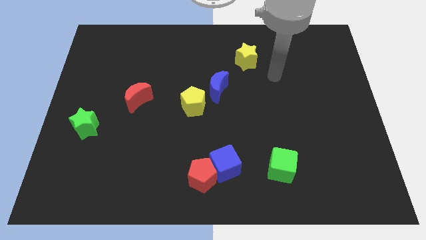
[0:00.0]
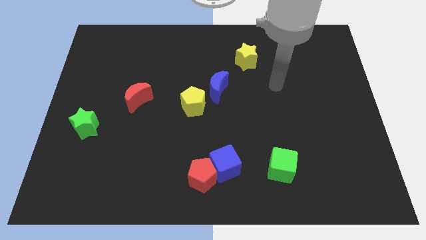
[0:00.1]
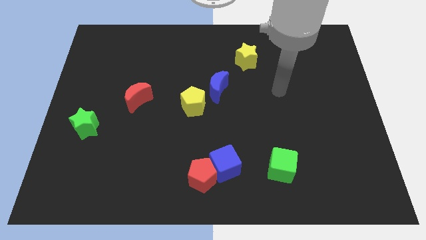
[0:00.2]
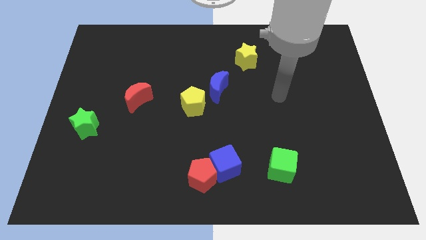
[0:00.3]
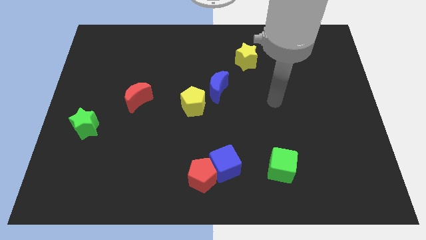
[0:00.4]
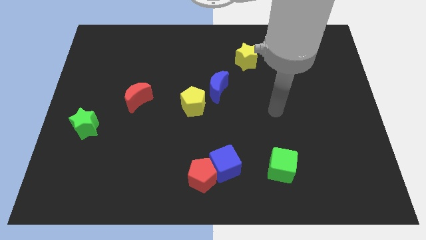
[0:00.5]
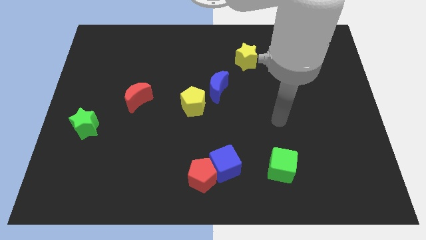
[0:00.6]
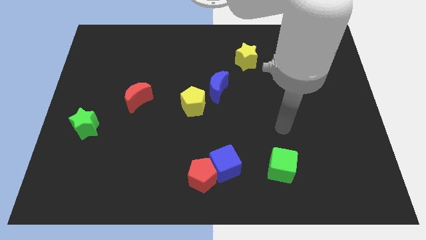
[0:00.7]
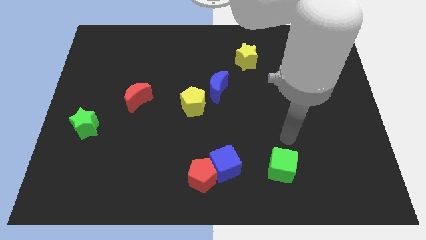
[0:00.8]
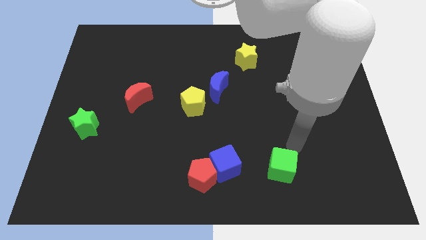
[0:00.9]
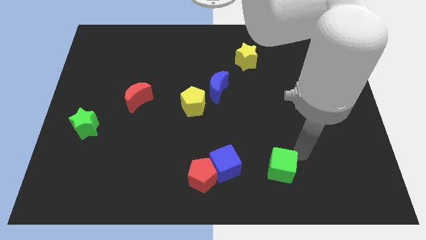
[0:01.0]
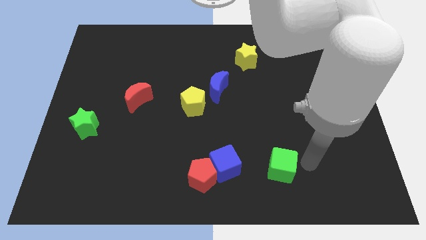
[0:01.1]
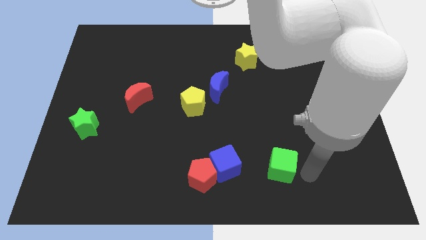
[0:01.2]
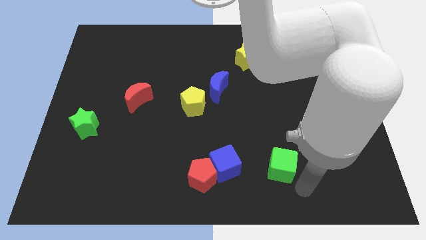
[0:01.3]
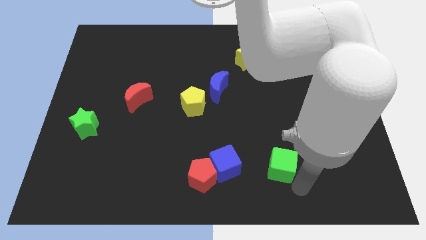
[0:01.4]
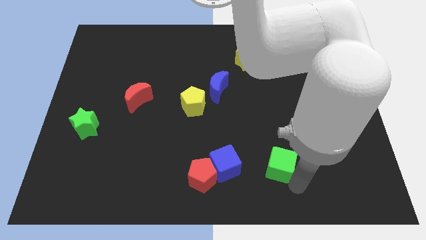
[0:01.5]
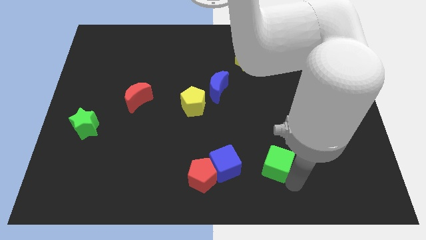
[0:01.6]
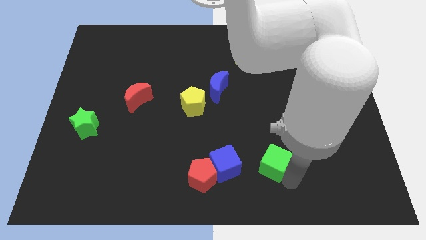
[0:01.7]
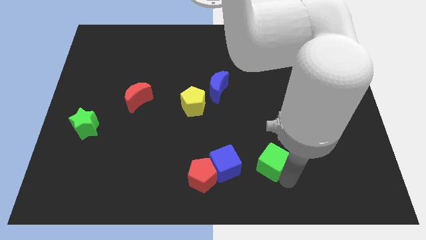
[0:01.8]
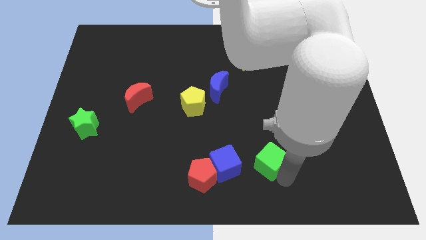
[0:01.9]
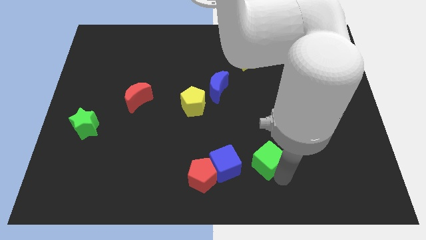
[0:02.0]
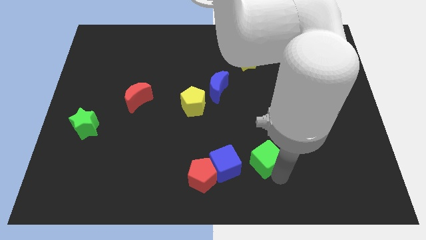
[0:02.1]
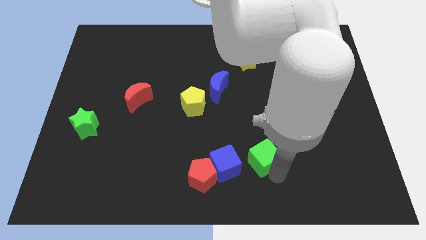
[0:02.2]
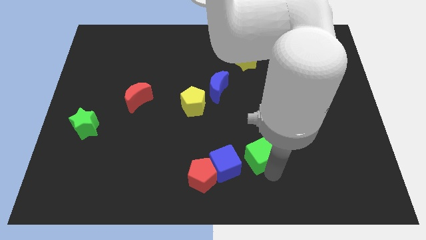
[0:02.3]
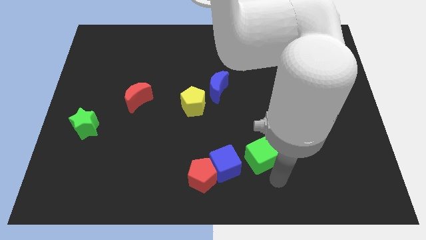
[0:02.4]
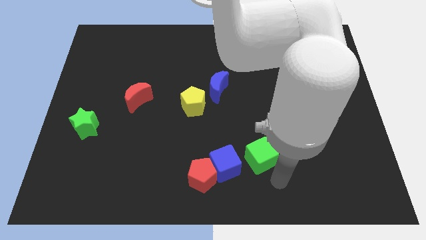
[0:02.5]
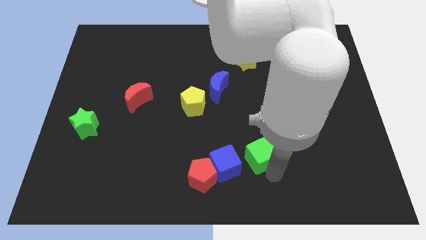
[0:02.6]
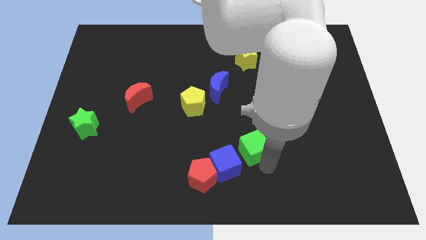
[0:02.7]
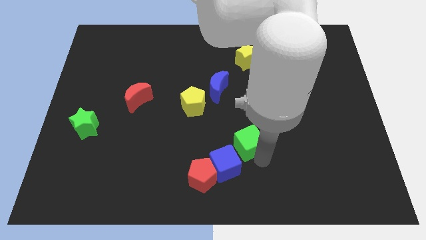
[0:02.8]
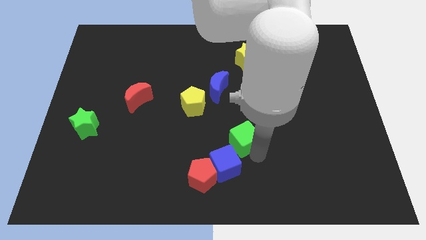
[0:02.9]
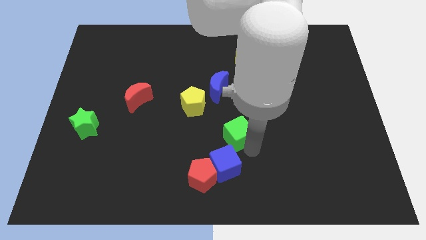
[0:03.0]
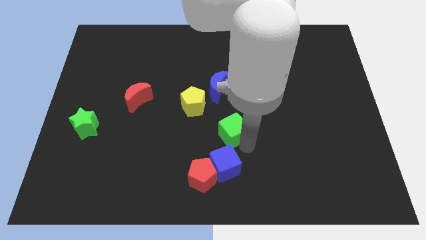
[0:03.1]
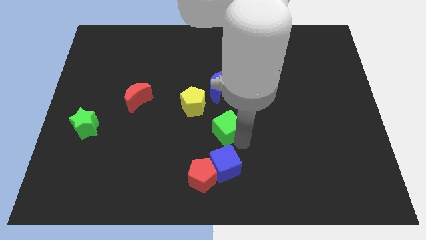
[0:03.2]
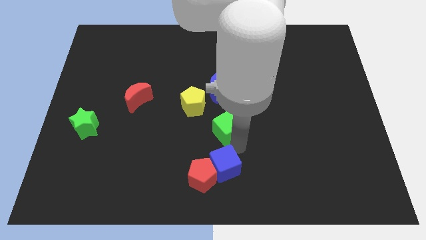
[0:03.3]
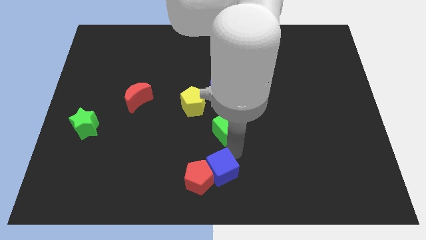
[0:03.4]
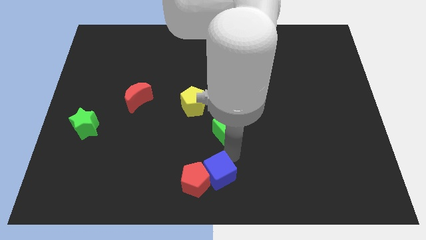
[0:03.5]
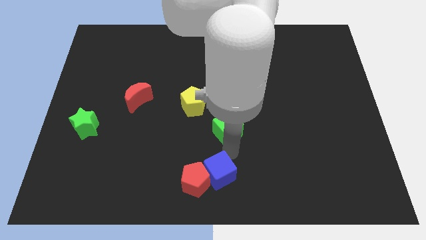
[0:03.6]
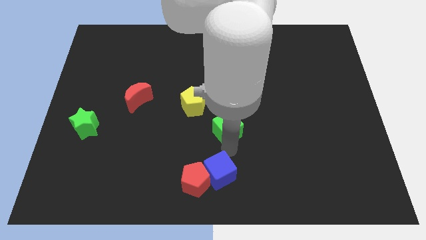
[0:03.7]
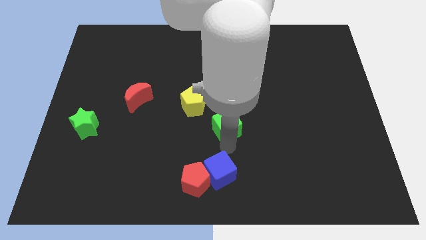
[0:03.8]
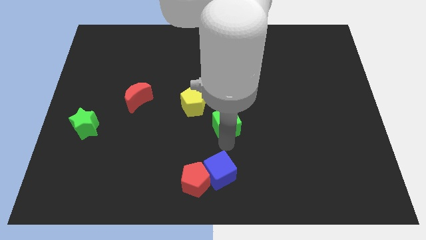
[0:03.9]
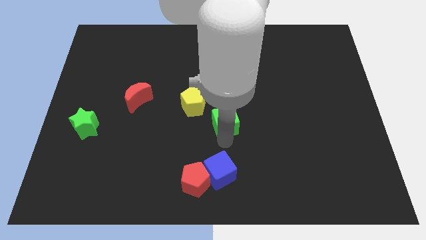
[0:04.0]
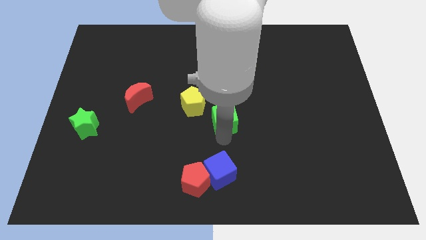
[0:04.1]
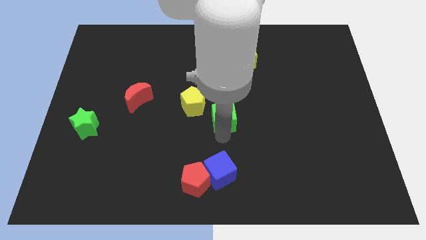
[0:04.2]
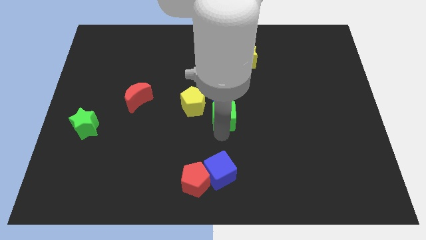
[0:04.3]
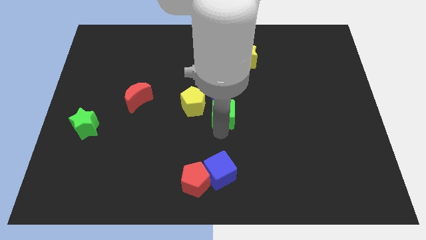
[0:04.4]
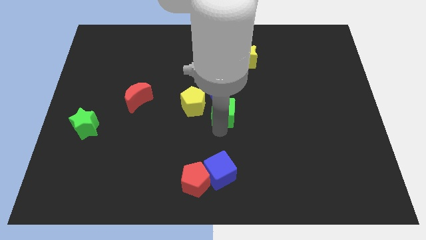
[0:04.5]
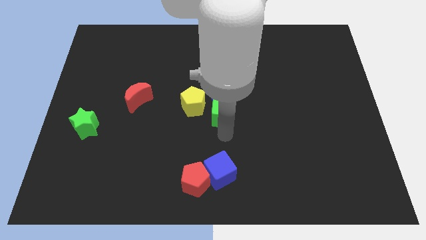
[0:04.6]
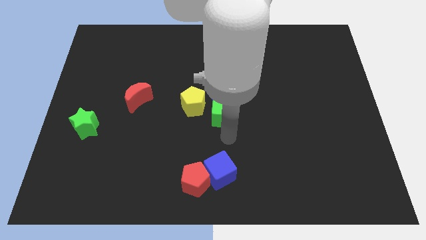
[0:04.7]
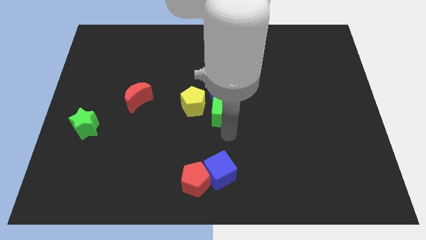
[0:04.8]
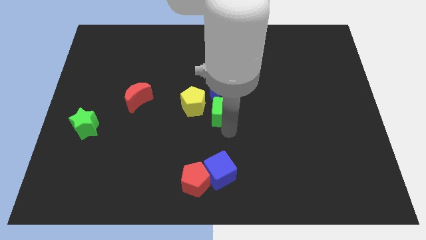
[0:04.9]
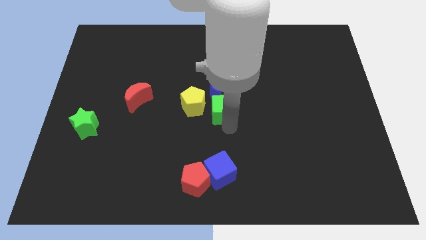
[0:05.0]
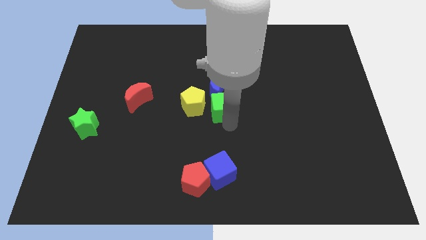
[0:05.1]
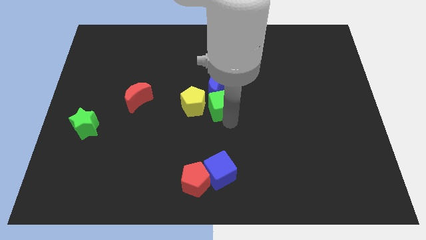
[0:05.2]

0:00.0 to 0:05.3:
put the green cube to the blue moon

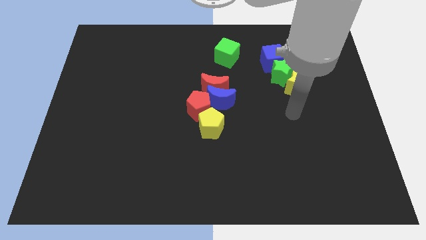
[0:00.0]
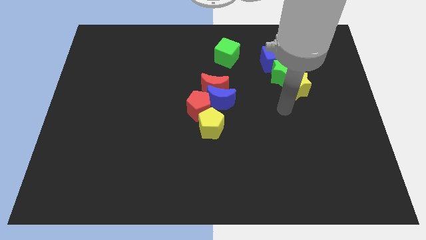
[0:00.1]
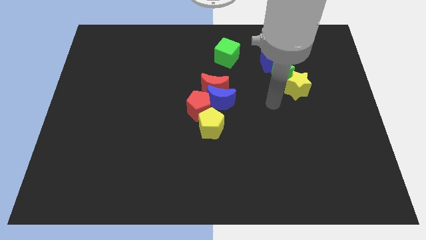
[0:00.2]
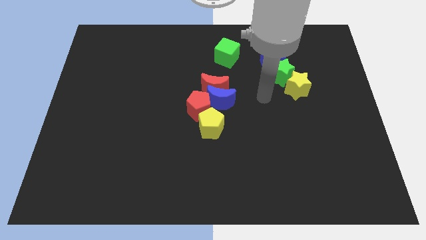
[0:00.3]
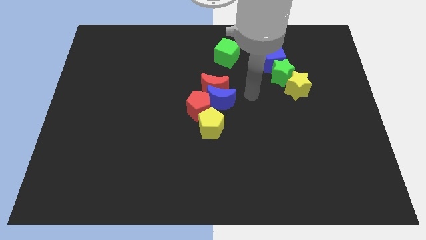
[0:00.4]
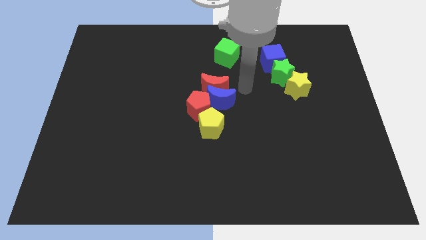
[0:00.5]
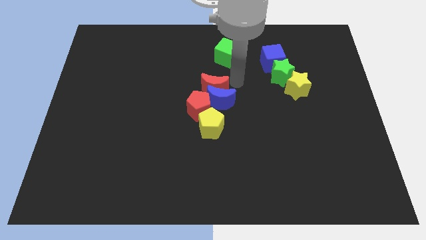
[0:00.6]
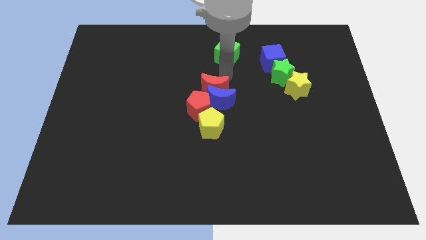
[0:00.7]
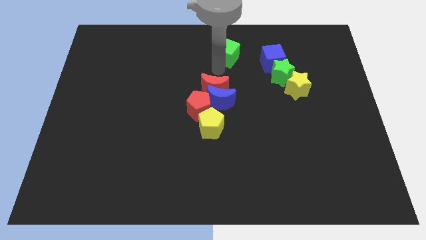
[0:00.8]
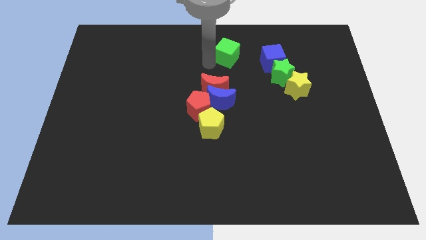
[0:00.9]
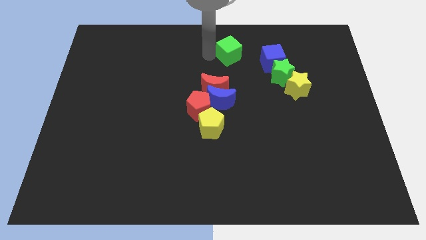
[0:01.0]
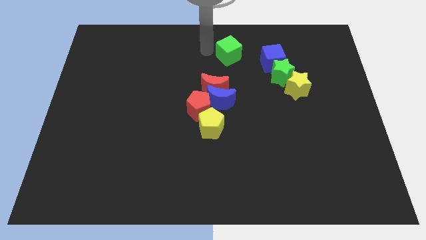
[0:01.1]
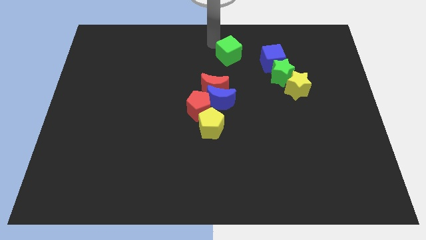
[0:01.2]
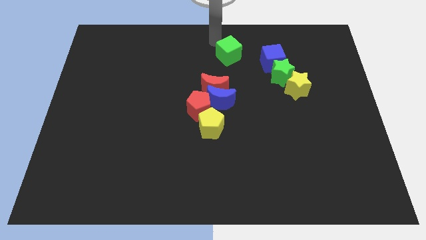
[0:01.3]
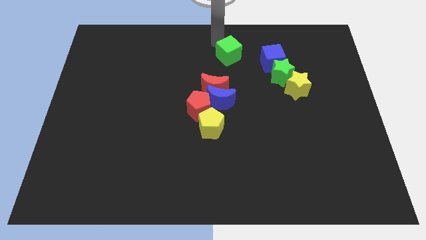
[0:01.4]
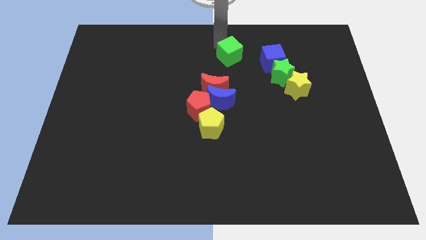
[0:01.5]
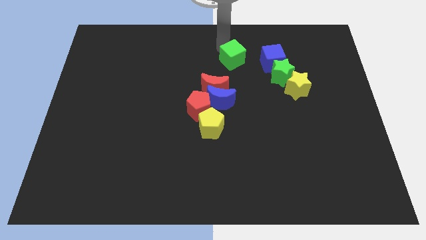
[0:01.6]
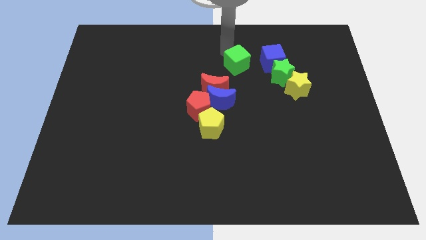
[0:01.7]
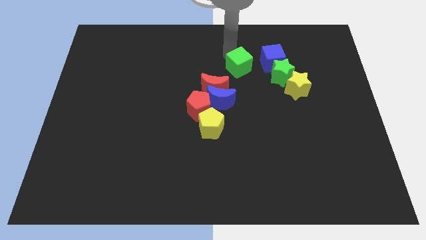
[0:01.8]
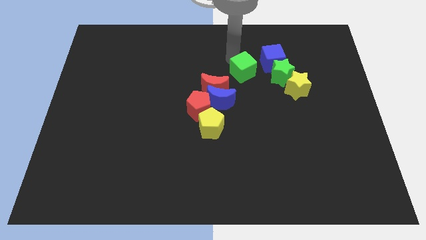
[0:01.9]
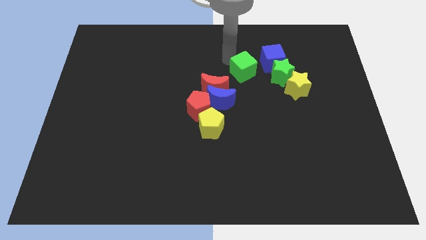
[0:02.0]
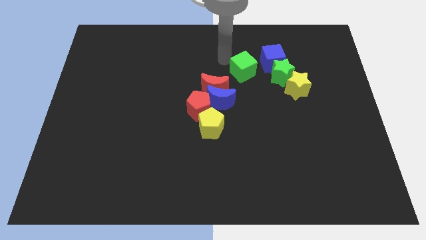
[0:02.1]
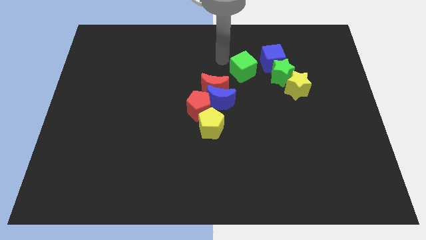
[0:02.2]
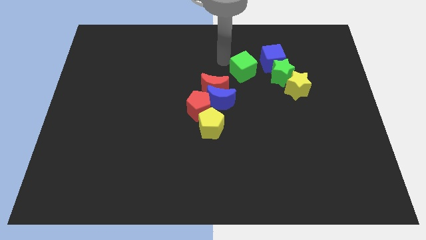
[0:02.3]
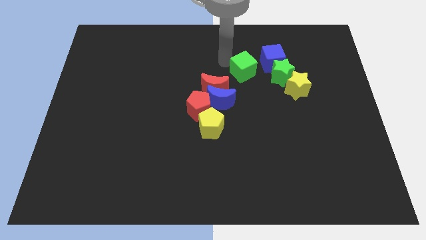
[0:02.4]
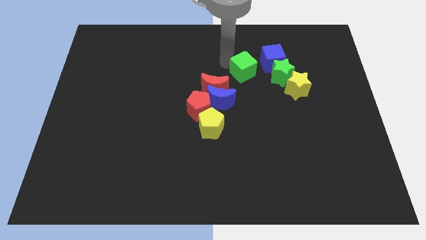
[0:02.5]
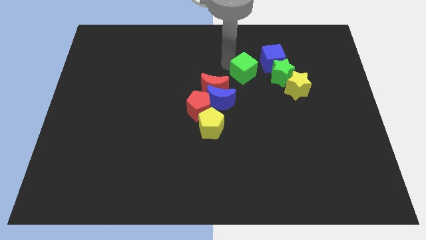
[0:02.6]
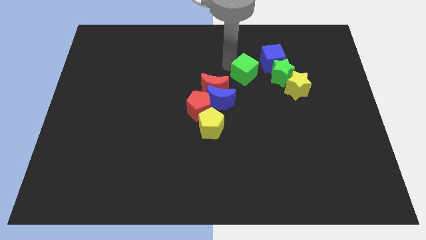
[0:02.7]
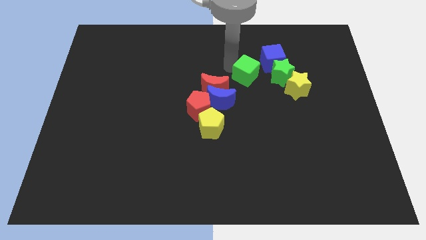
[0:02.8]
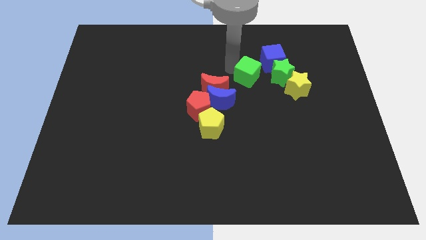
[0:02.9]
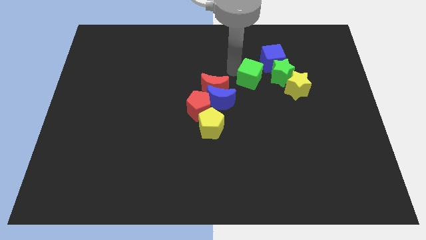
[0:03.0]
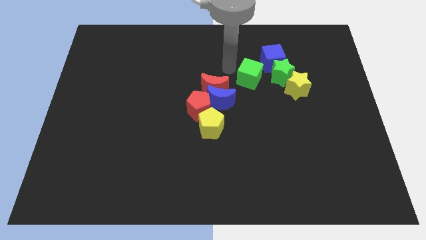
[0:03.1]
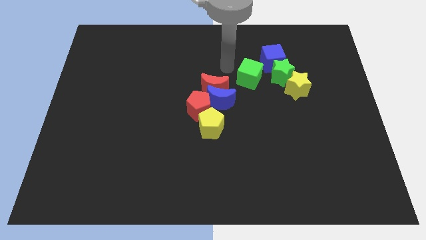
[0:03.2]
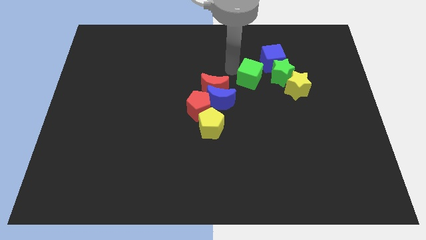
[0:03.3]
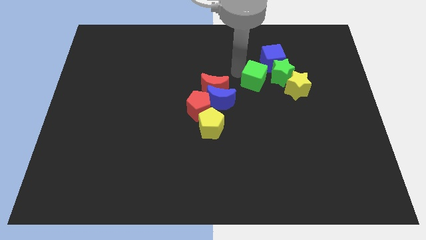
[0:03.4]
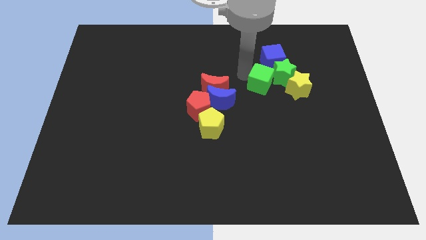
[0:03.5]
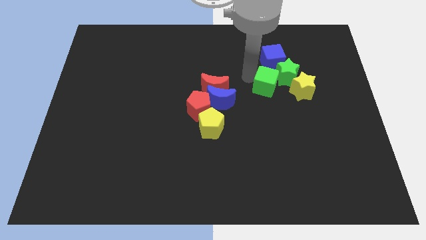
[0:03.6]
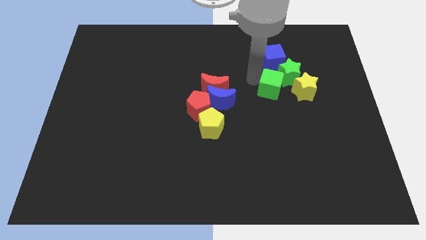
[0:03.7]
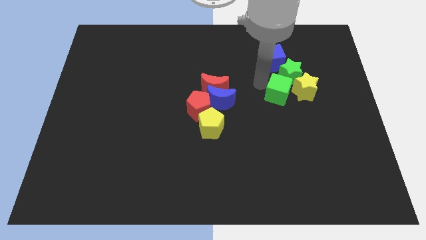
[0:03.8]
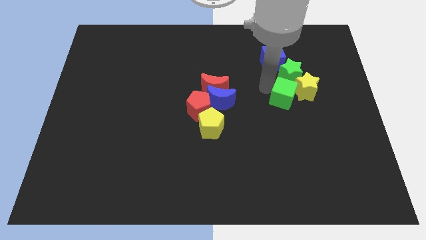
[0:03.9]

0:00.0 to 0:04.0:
slide the green cube to the yellow star
